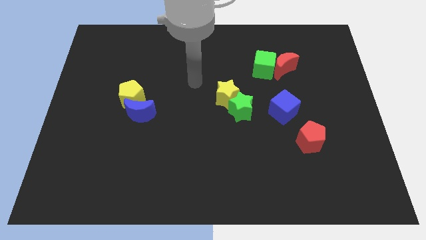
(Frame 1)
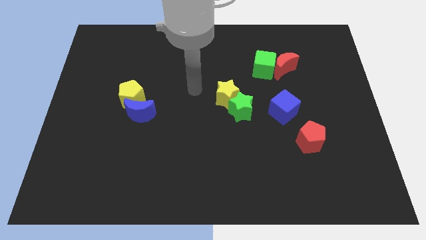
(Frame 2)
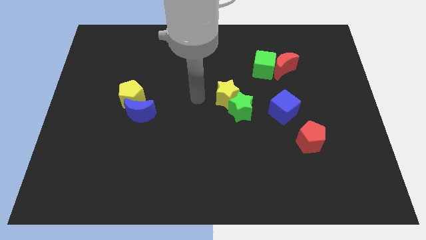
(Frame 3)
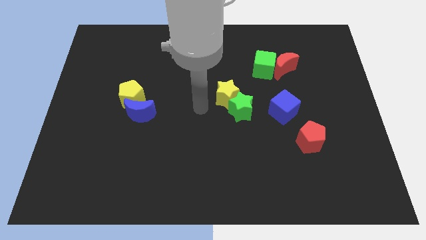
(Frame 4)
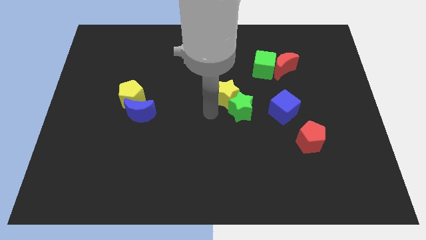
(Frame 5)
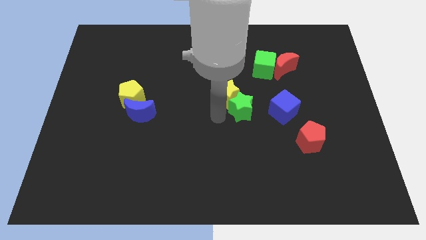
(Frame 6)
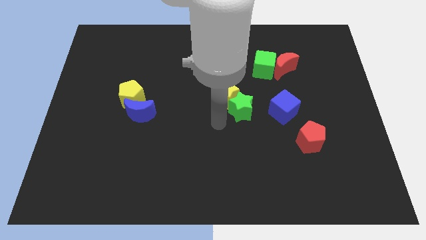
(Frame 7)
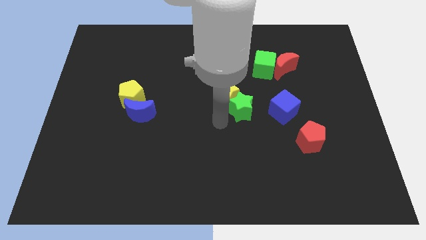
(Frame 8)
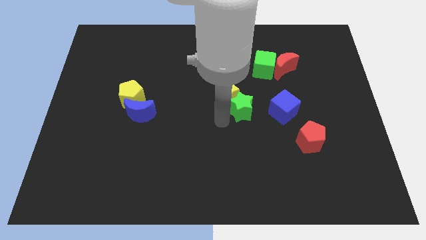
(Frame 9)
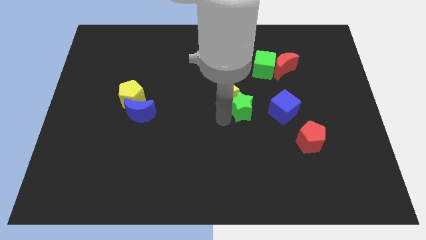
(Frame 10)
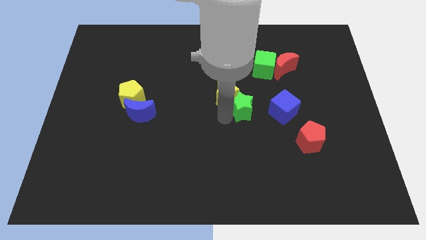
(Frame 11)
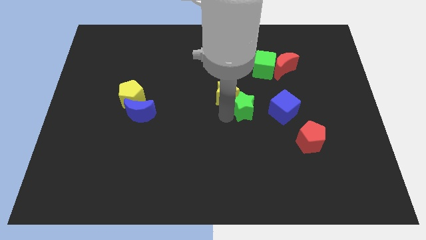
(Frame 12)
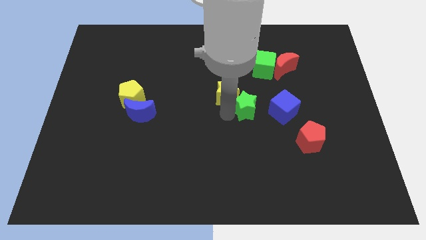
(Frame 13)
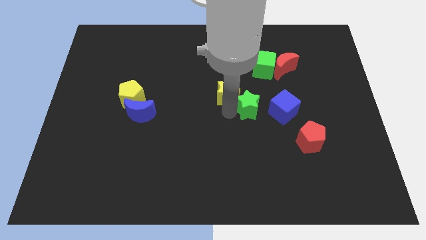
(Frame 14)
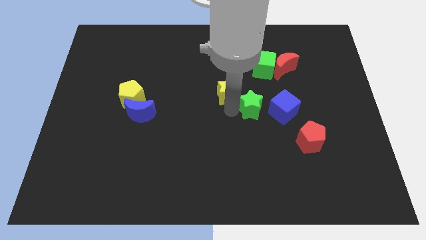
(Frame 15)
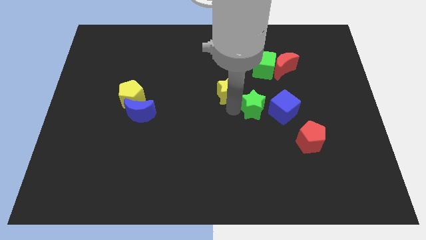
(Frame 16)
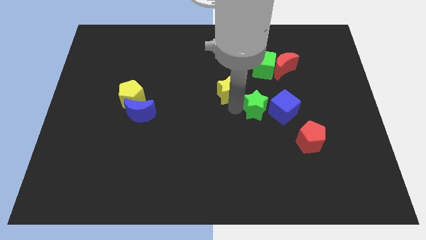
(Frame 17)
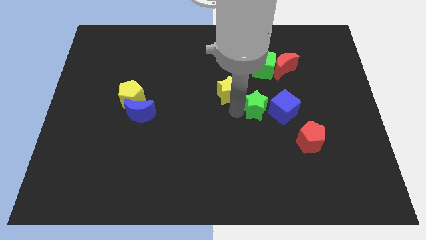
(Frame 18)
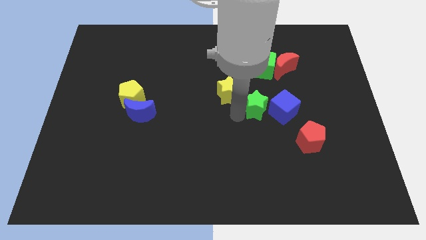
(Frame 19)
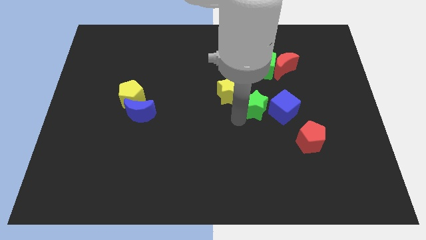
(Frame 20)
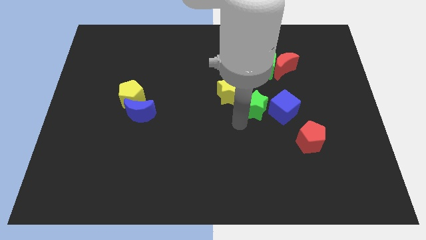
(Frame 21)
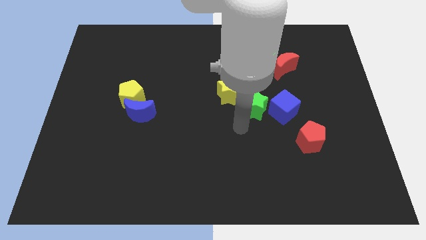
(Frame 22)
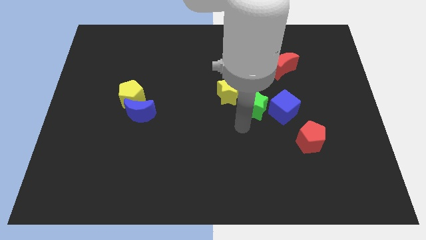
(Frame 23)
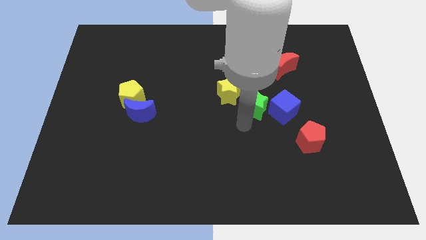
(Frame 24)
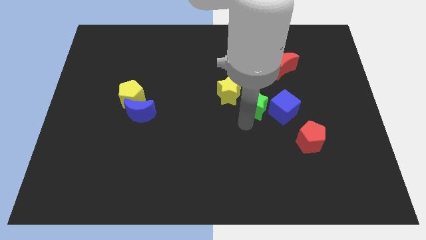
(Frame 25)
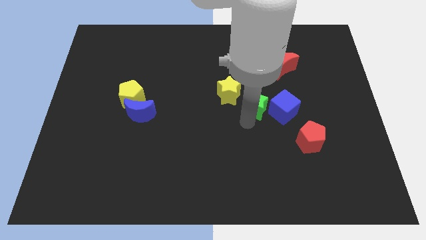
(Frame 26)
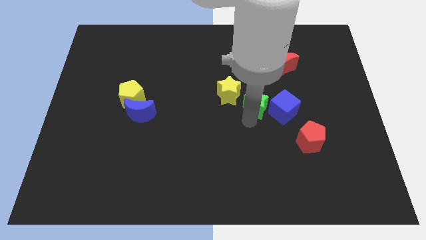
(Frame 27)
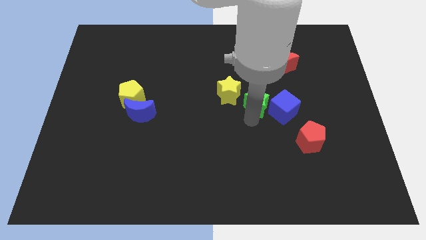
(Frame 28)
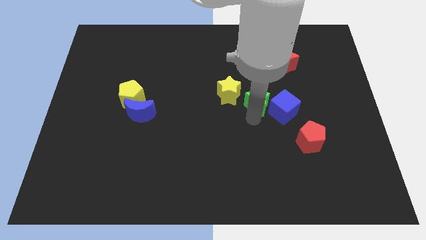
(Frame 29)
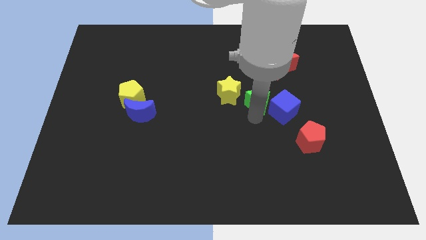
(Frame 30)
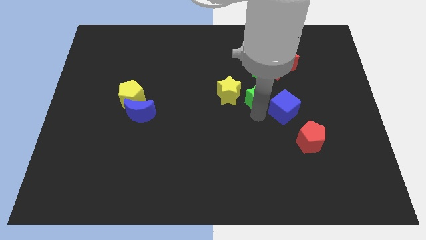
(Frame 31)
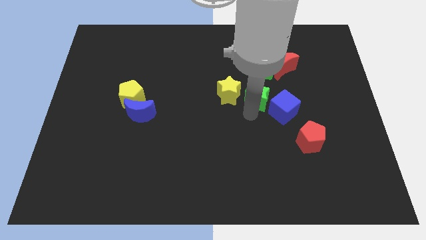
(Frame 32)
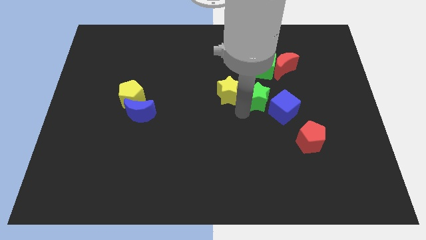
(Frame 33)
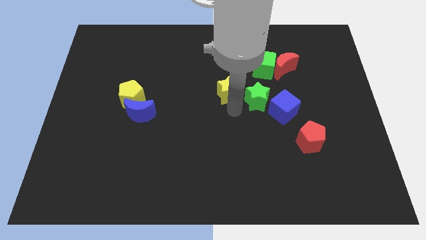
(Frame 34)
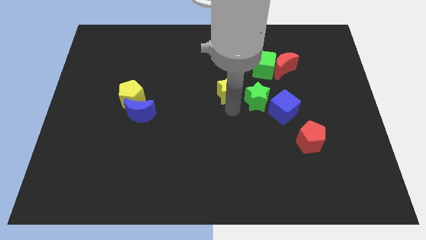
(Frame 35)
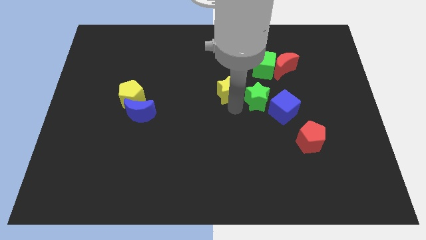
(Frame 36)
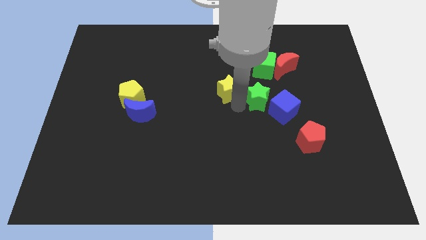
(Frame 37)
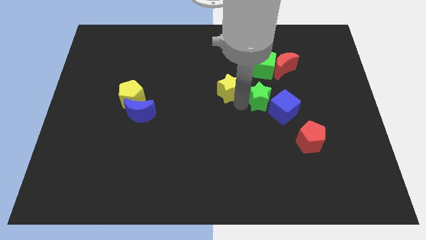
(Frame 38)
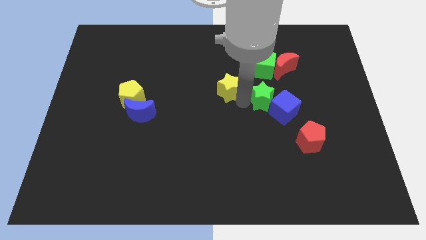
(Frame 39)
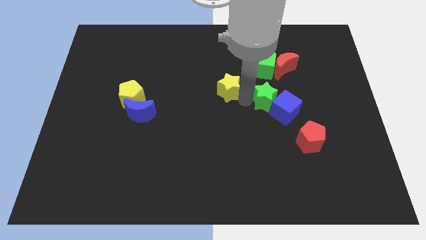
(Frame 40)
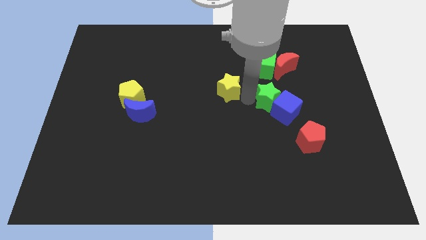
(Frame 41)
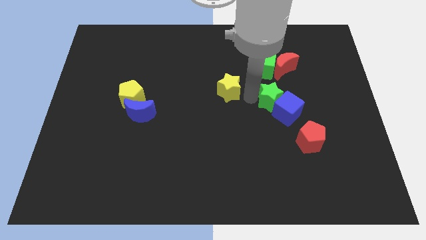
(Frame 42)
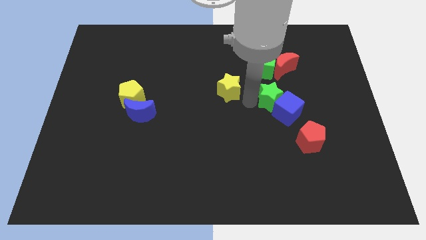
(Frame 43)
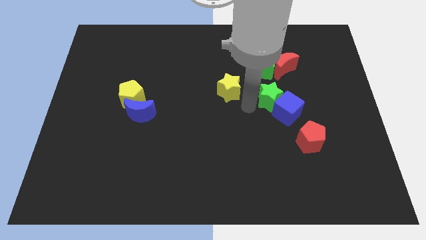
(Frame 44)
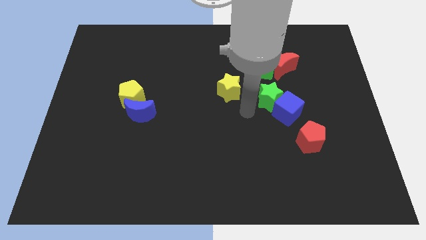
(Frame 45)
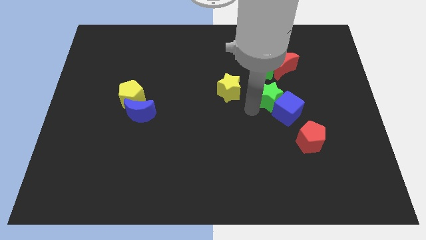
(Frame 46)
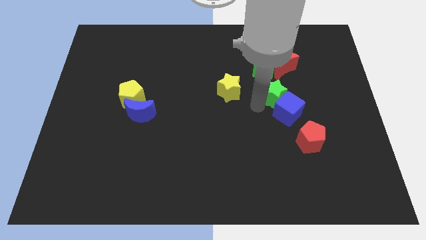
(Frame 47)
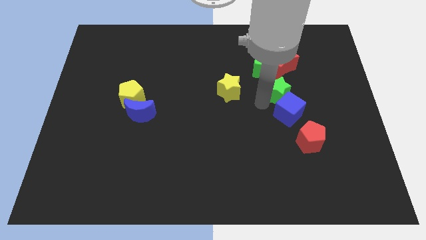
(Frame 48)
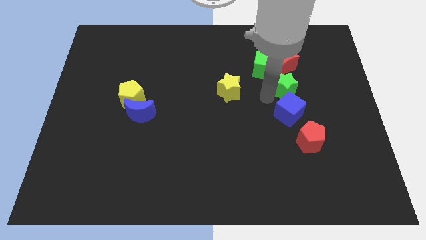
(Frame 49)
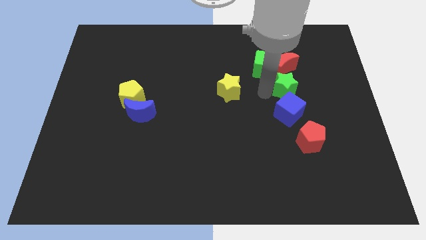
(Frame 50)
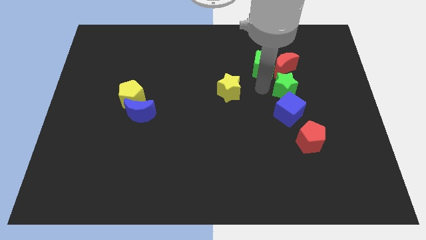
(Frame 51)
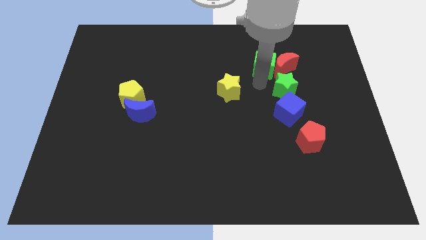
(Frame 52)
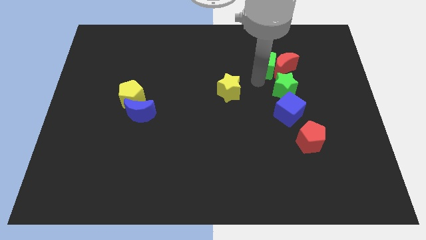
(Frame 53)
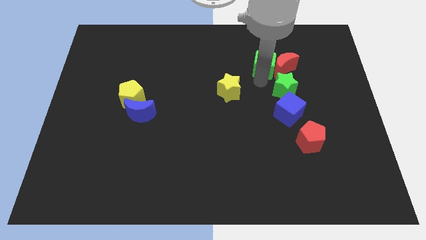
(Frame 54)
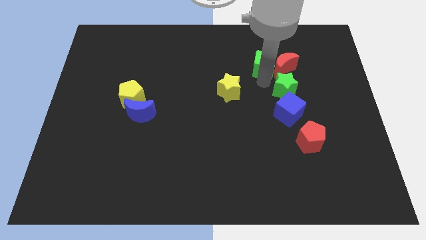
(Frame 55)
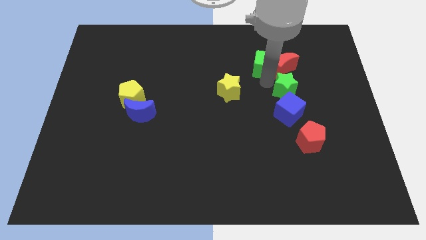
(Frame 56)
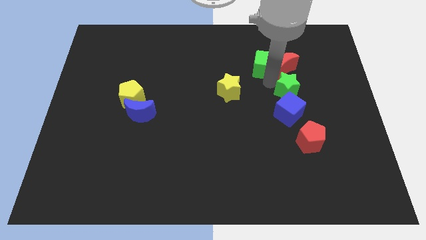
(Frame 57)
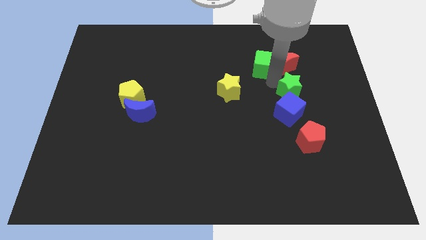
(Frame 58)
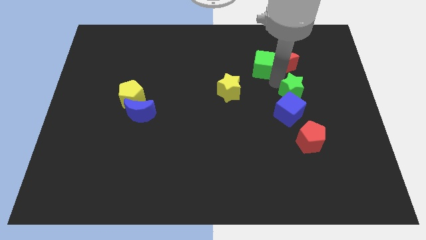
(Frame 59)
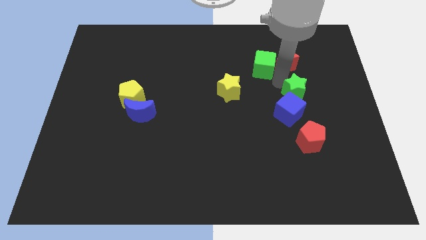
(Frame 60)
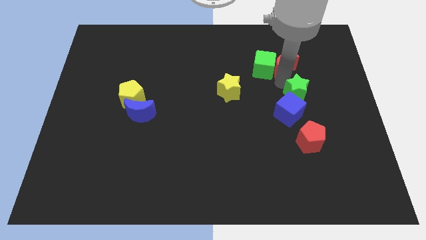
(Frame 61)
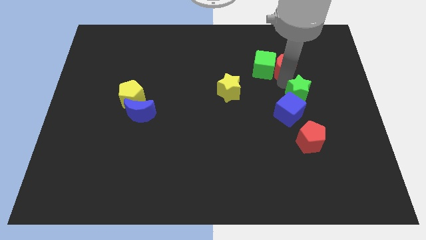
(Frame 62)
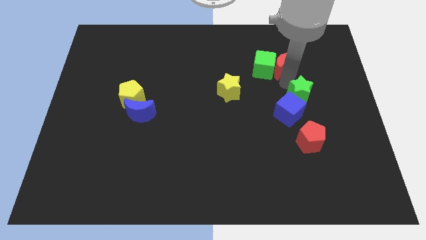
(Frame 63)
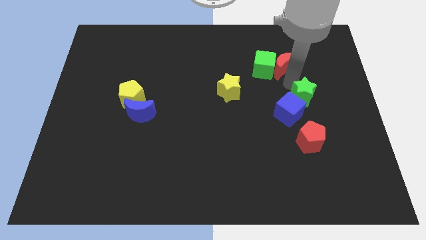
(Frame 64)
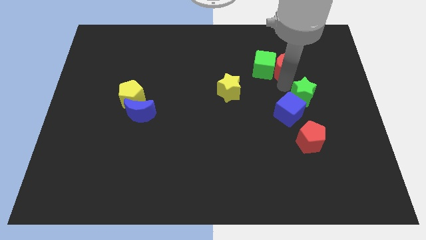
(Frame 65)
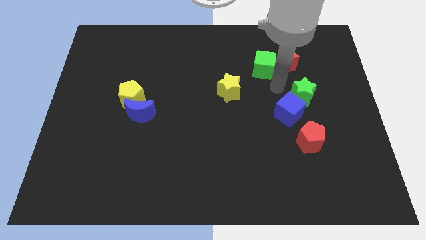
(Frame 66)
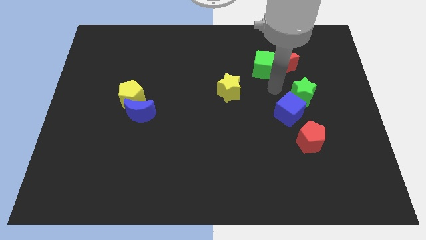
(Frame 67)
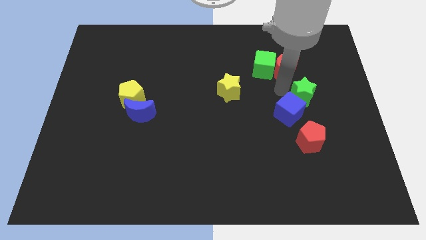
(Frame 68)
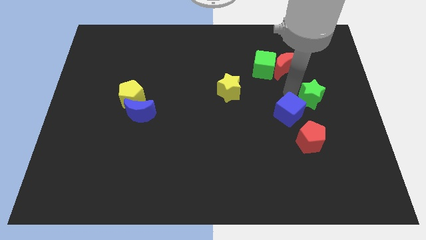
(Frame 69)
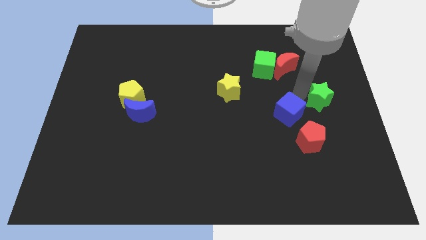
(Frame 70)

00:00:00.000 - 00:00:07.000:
move the green star to the right side of the board
